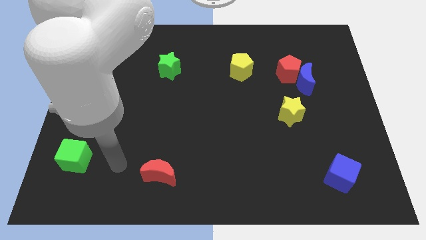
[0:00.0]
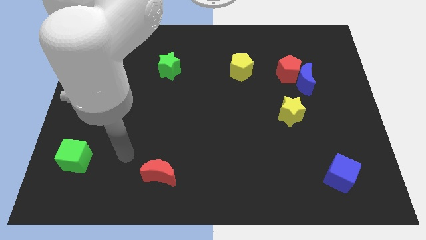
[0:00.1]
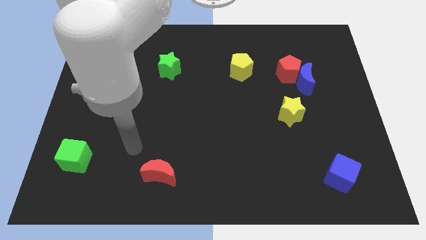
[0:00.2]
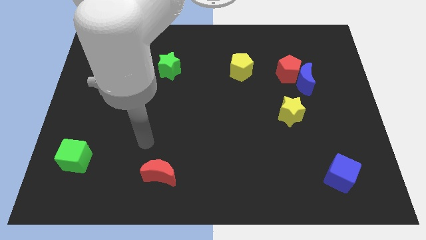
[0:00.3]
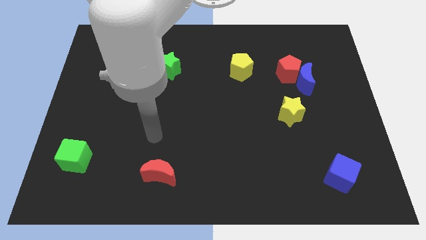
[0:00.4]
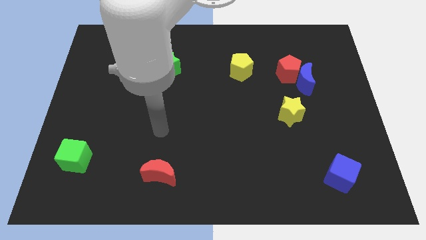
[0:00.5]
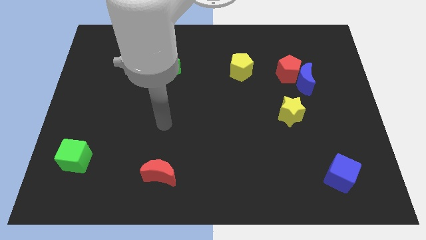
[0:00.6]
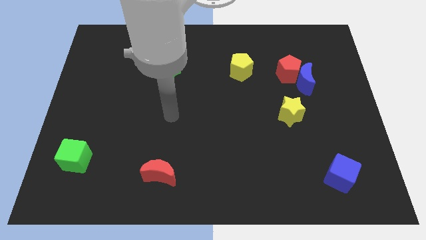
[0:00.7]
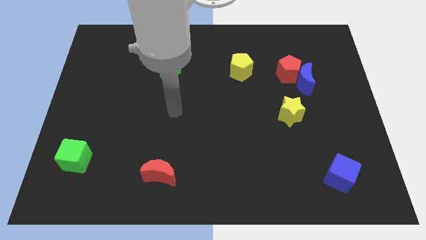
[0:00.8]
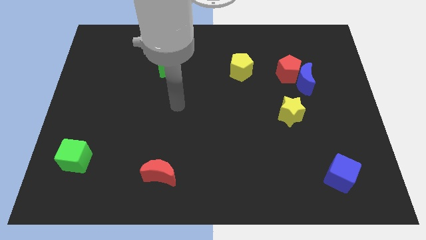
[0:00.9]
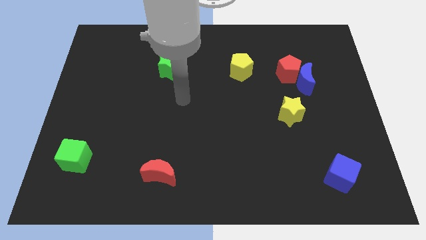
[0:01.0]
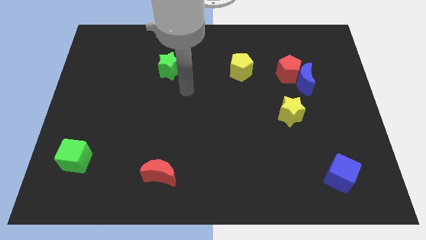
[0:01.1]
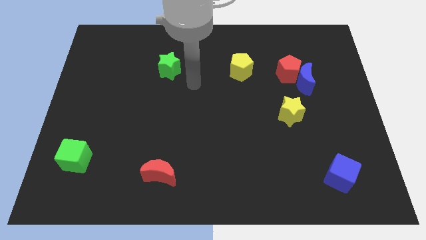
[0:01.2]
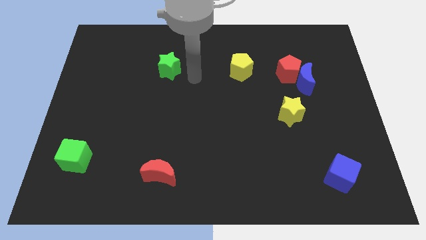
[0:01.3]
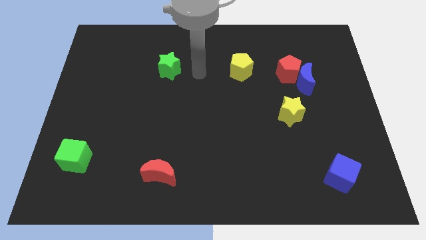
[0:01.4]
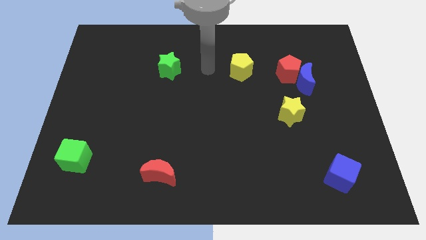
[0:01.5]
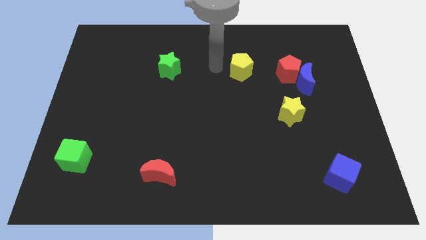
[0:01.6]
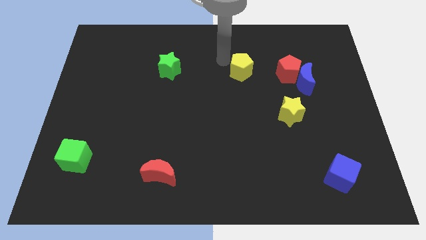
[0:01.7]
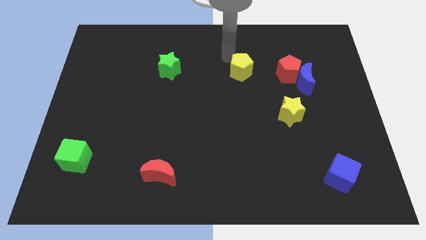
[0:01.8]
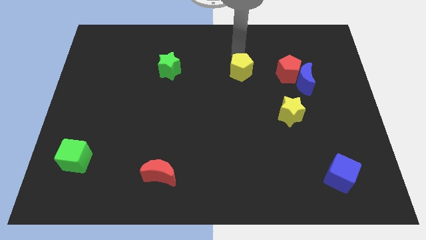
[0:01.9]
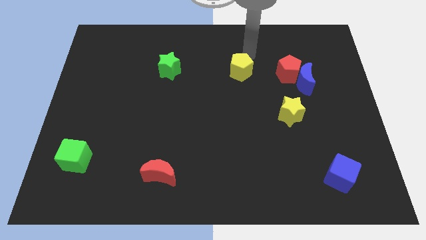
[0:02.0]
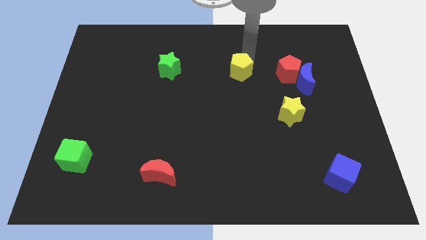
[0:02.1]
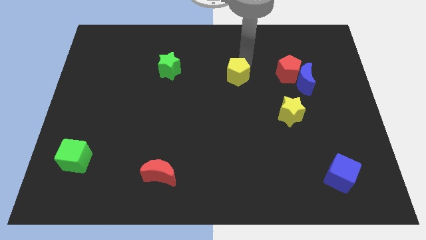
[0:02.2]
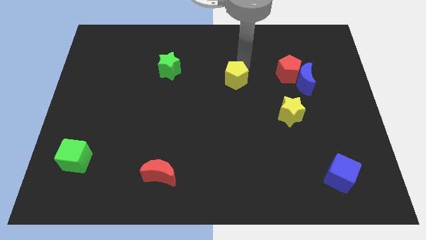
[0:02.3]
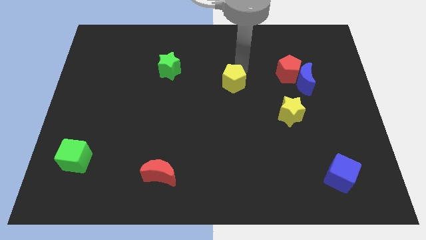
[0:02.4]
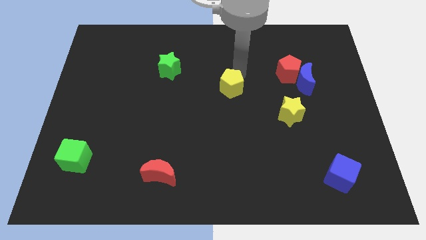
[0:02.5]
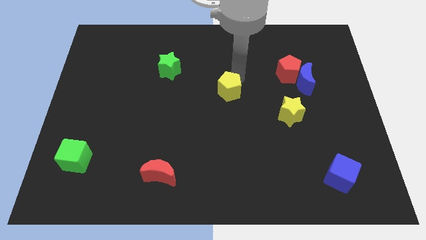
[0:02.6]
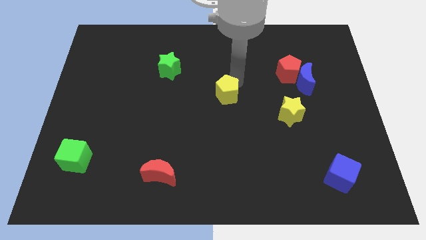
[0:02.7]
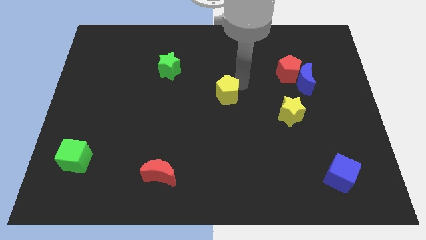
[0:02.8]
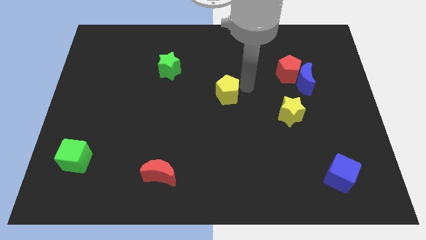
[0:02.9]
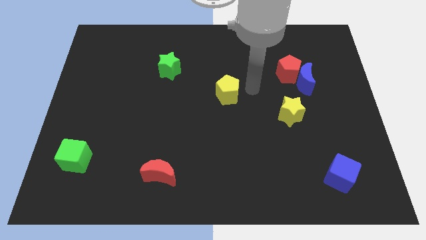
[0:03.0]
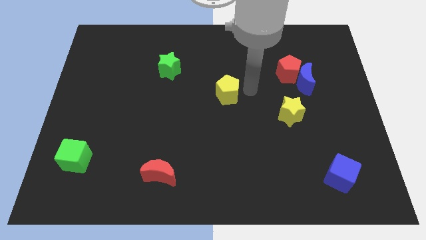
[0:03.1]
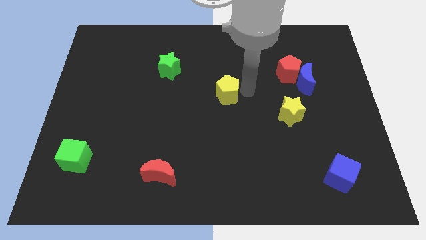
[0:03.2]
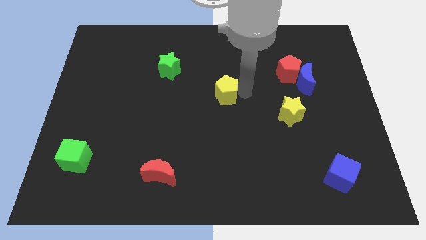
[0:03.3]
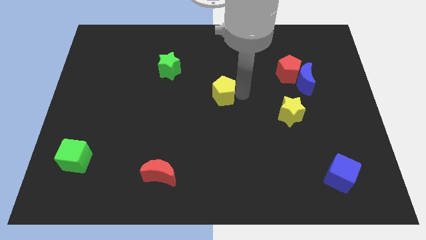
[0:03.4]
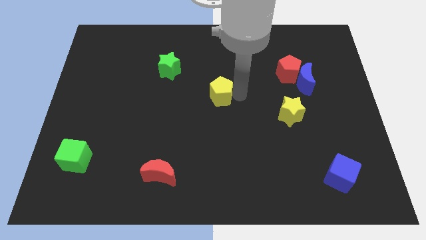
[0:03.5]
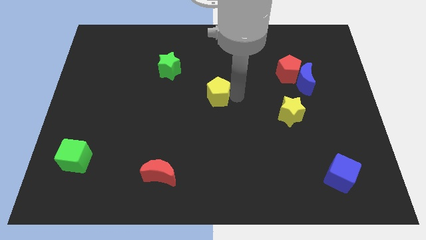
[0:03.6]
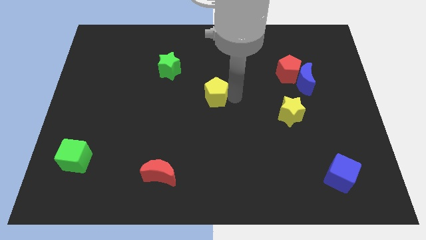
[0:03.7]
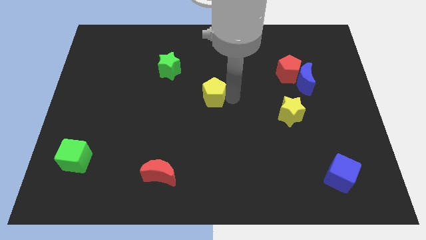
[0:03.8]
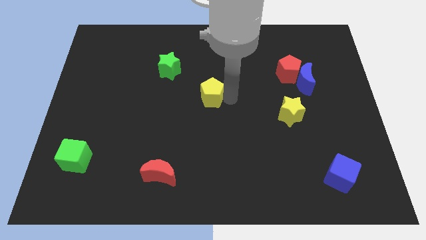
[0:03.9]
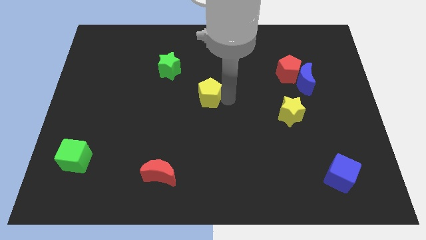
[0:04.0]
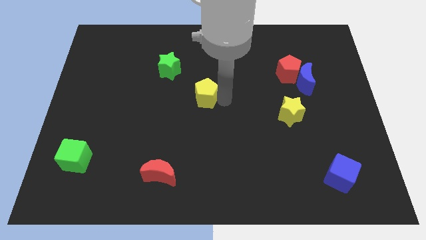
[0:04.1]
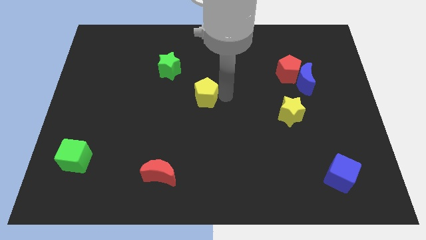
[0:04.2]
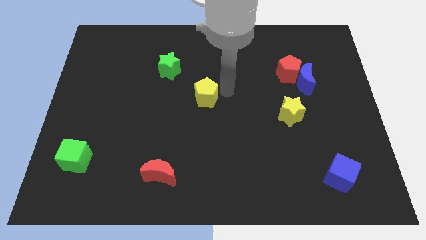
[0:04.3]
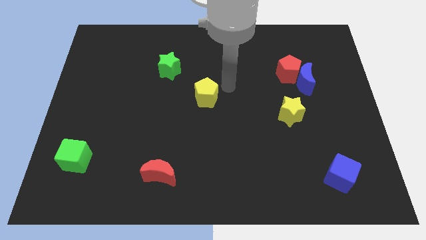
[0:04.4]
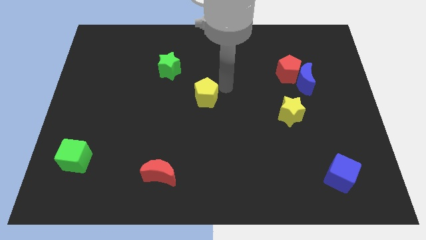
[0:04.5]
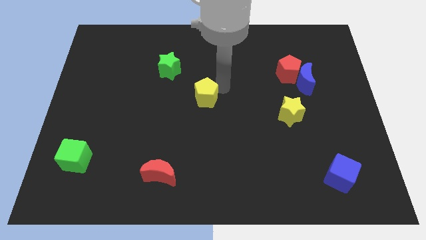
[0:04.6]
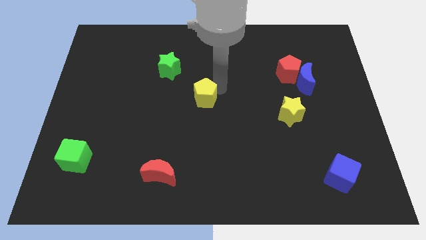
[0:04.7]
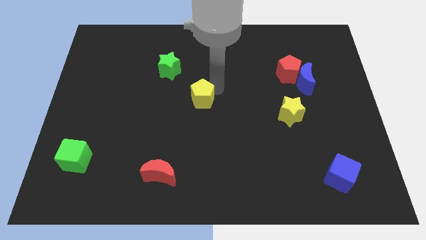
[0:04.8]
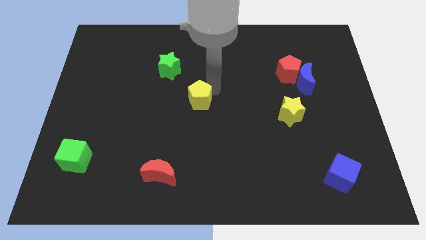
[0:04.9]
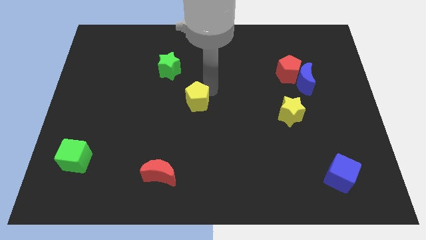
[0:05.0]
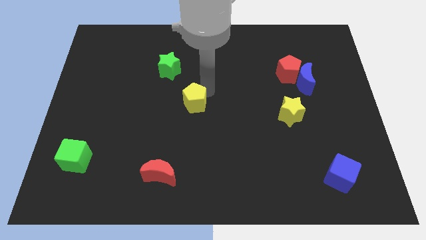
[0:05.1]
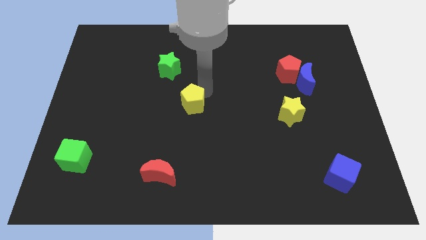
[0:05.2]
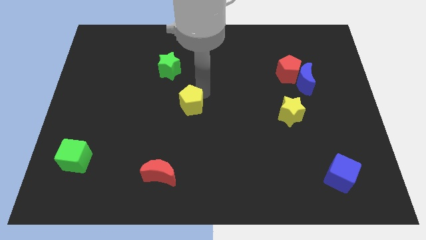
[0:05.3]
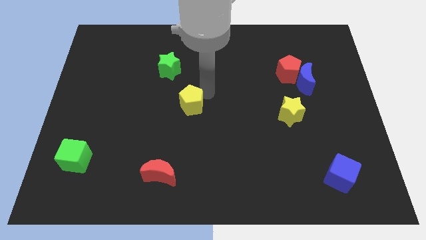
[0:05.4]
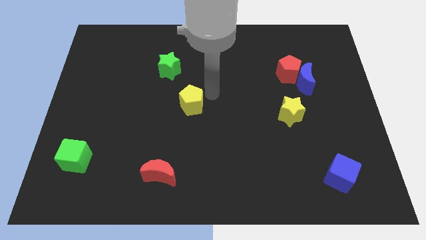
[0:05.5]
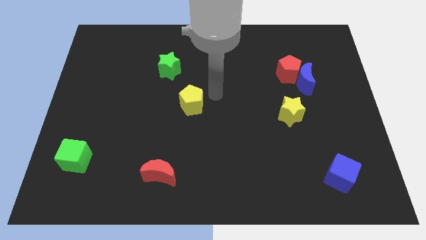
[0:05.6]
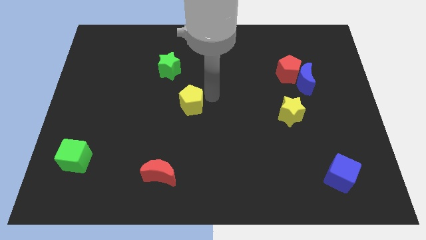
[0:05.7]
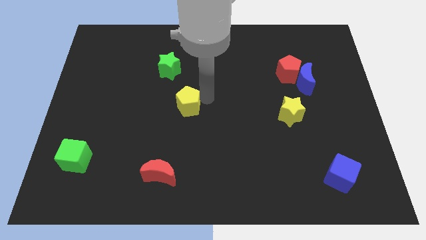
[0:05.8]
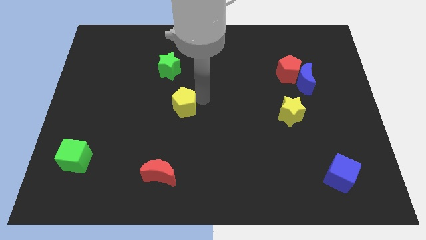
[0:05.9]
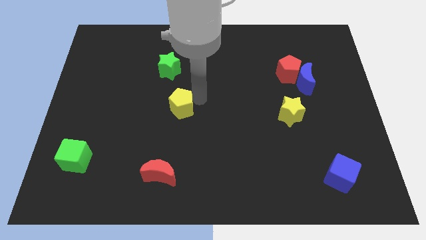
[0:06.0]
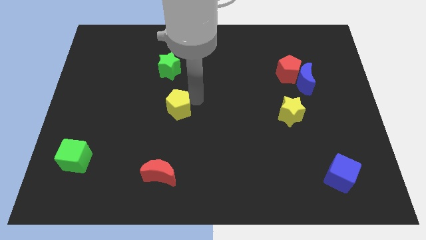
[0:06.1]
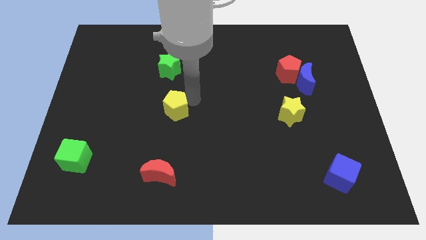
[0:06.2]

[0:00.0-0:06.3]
move the yellow pentagon downwards and then to the left

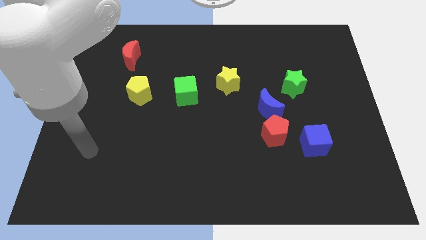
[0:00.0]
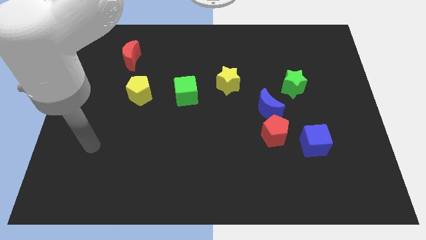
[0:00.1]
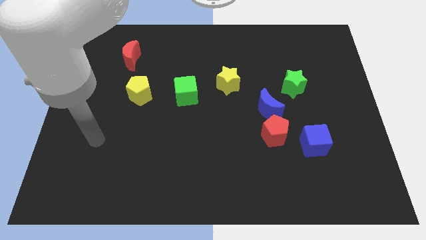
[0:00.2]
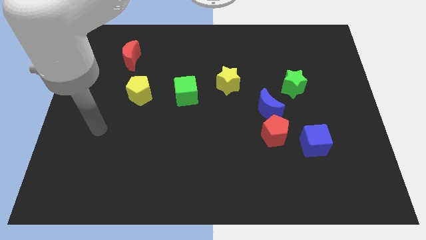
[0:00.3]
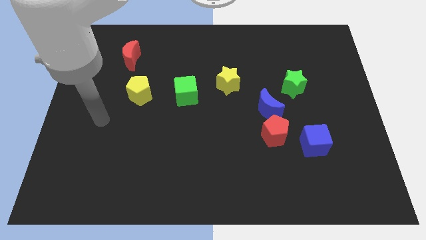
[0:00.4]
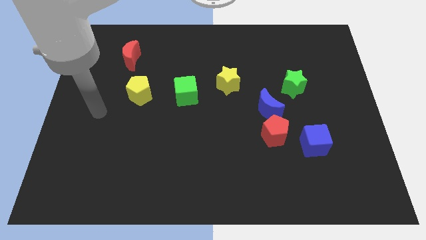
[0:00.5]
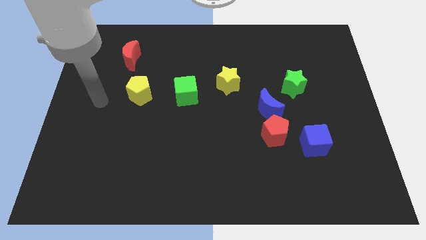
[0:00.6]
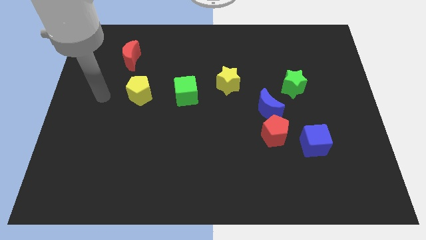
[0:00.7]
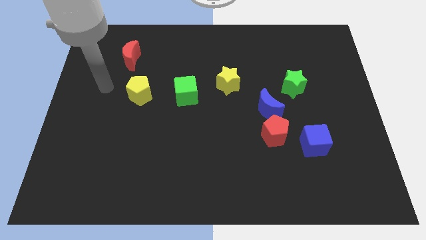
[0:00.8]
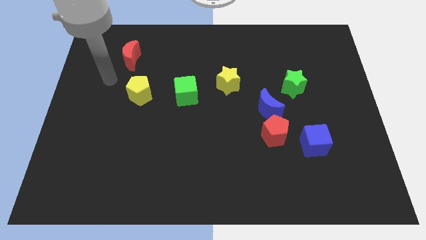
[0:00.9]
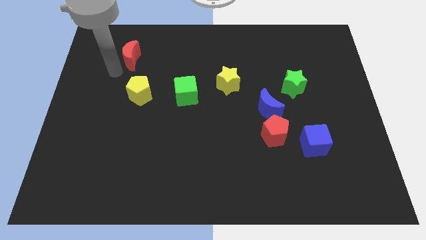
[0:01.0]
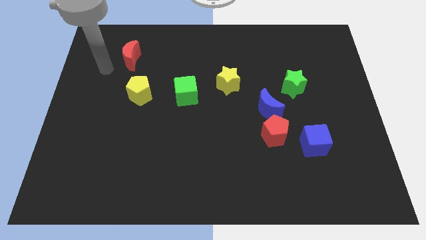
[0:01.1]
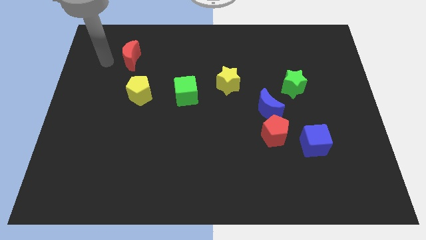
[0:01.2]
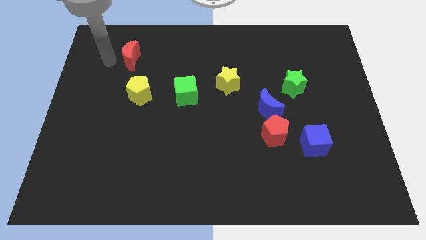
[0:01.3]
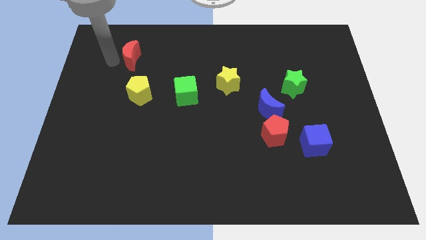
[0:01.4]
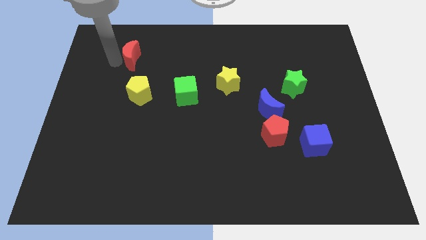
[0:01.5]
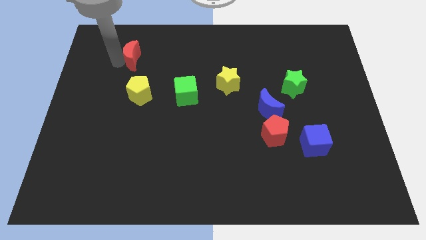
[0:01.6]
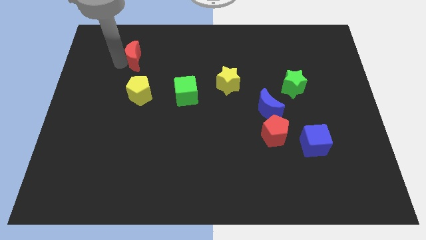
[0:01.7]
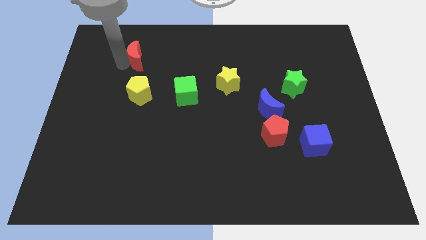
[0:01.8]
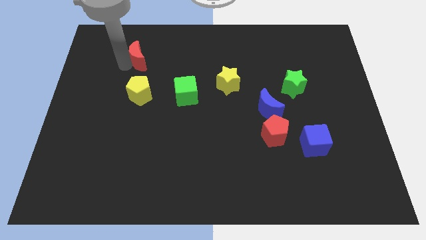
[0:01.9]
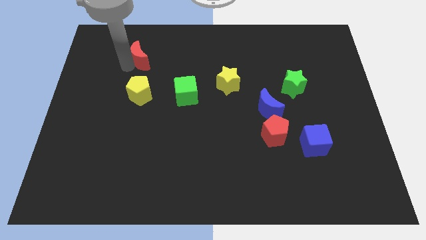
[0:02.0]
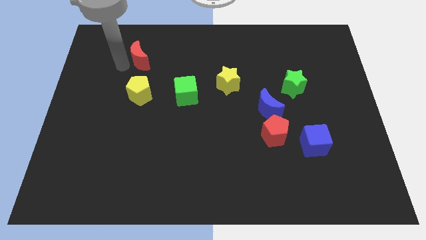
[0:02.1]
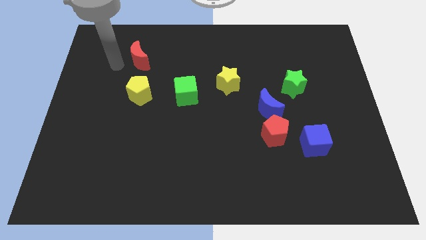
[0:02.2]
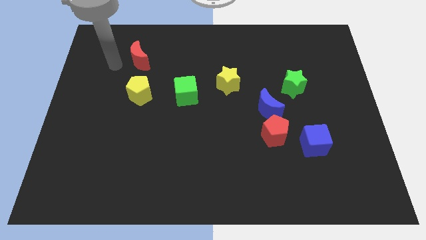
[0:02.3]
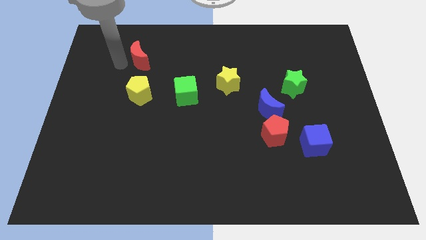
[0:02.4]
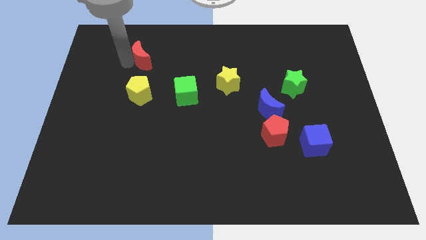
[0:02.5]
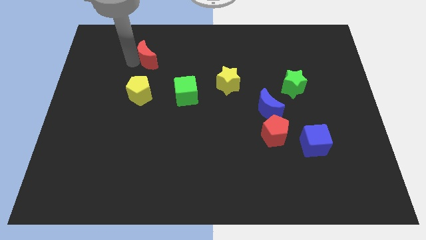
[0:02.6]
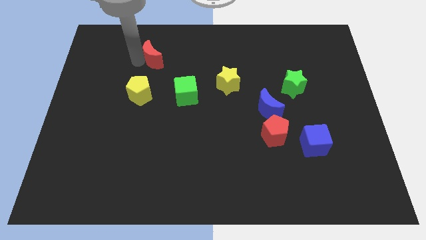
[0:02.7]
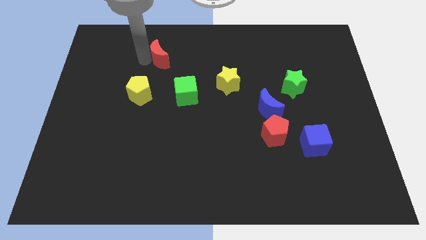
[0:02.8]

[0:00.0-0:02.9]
move the red moon to the right a little
